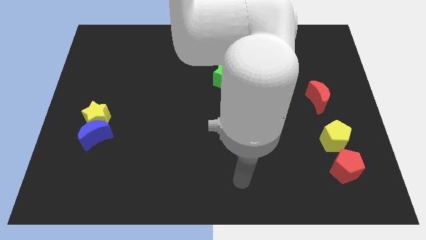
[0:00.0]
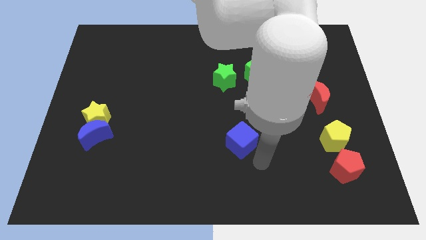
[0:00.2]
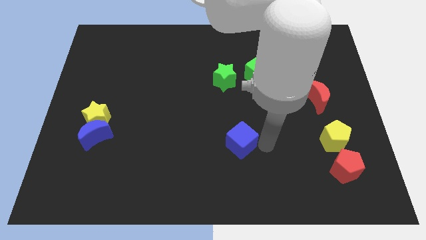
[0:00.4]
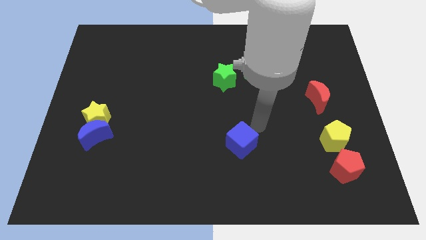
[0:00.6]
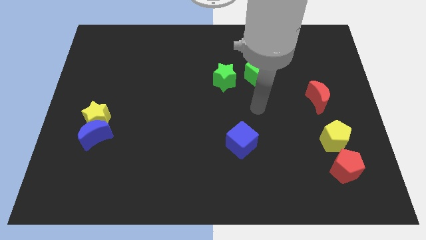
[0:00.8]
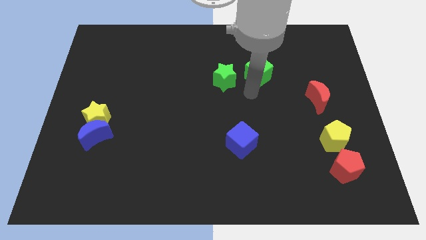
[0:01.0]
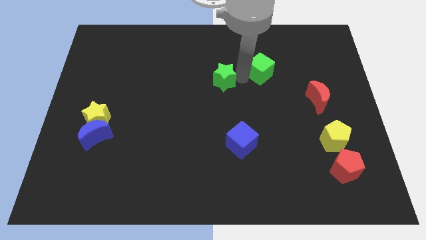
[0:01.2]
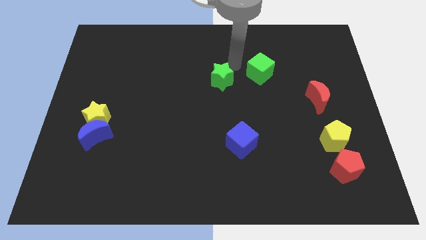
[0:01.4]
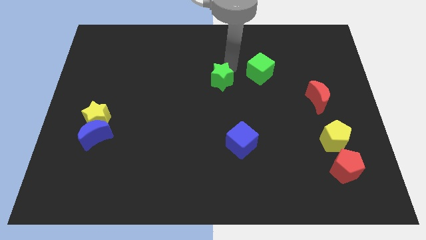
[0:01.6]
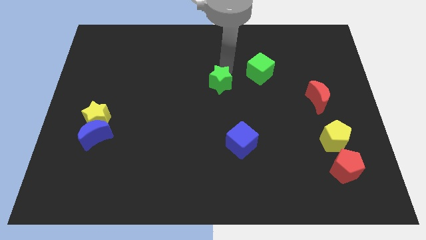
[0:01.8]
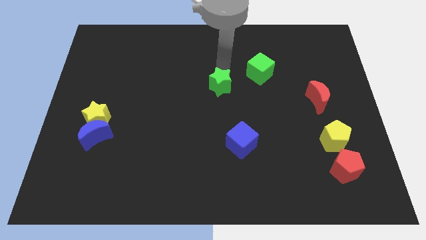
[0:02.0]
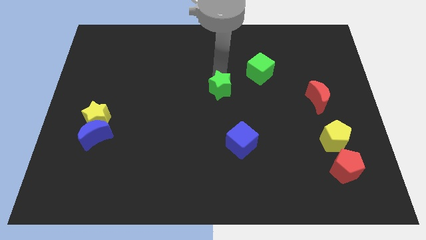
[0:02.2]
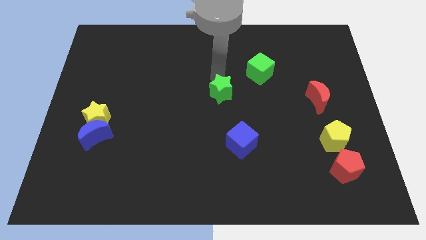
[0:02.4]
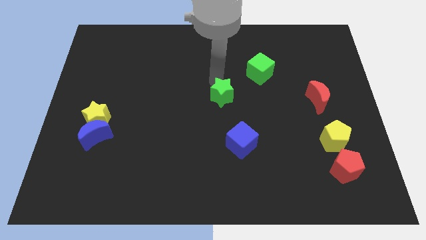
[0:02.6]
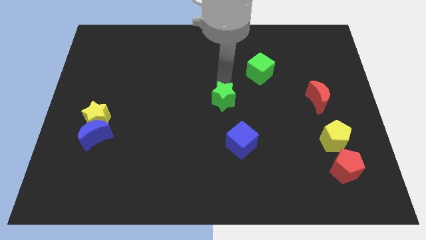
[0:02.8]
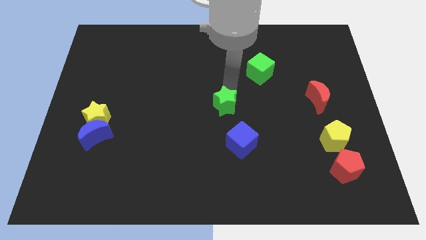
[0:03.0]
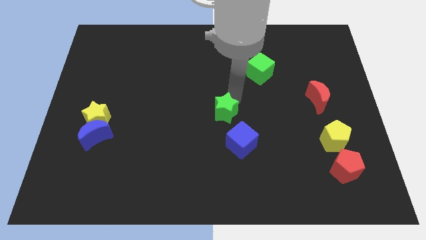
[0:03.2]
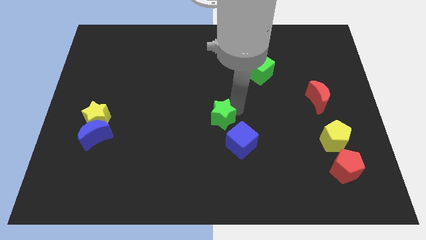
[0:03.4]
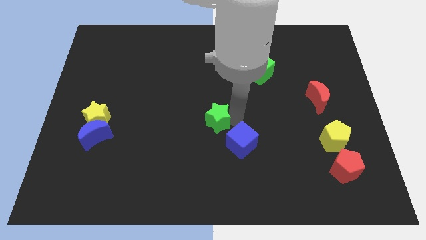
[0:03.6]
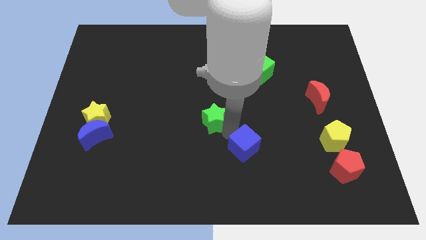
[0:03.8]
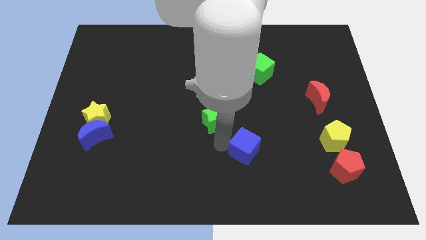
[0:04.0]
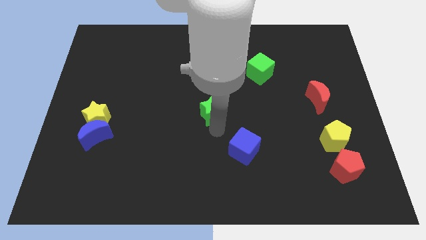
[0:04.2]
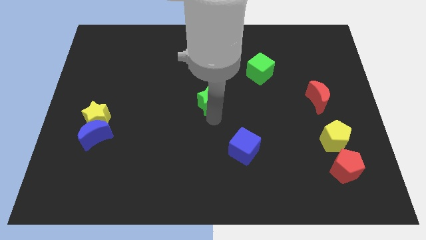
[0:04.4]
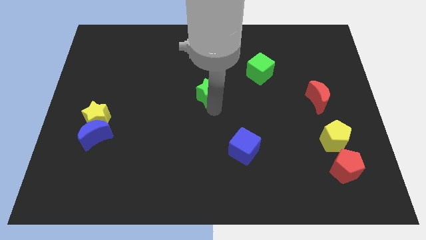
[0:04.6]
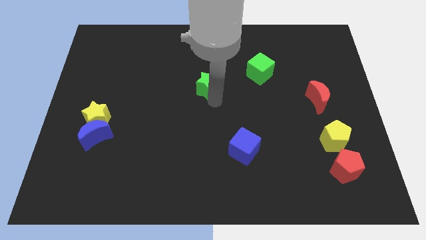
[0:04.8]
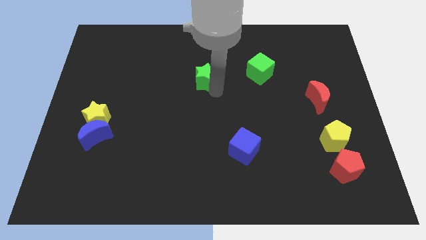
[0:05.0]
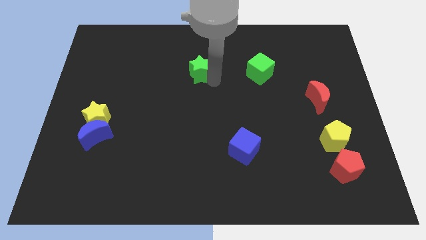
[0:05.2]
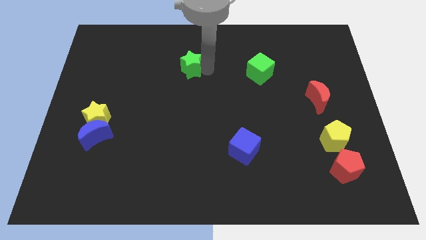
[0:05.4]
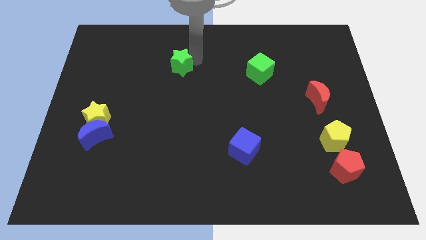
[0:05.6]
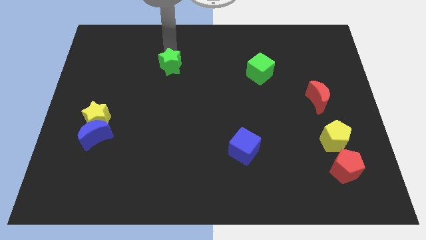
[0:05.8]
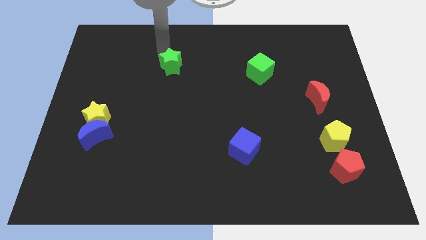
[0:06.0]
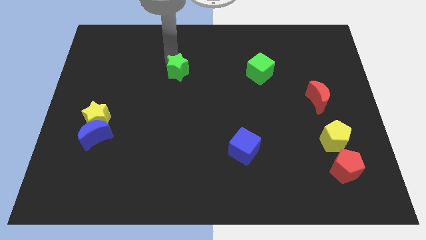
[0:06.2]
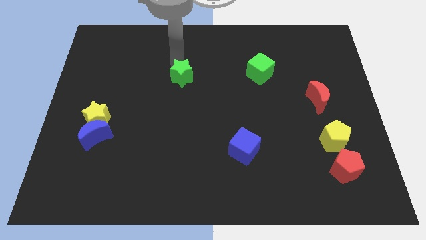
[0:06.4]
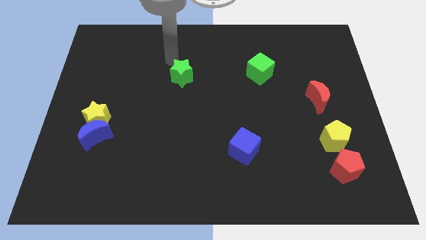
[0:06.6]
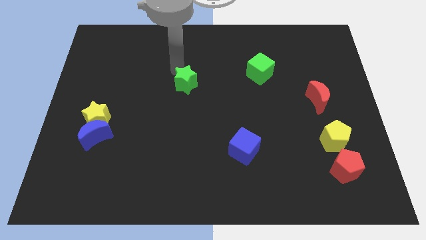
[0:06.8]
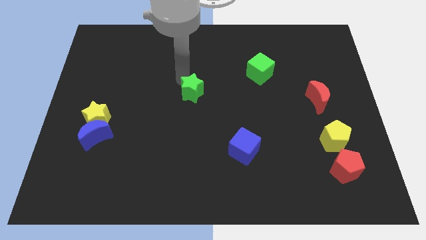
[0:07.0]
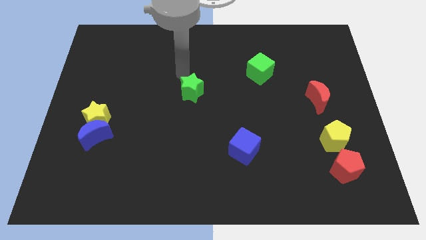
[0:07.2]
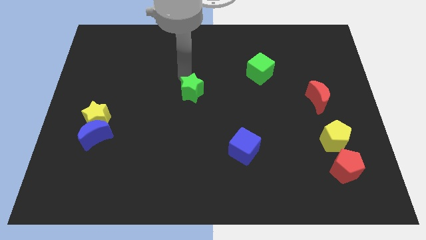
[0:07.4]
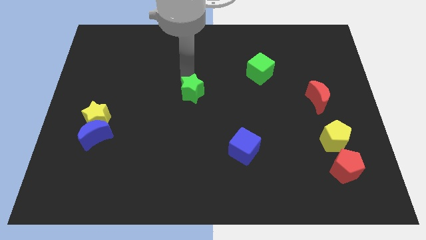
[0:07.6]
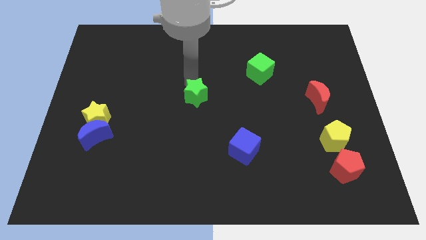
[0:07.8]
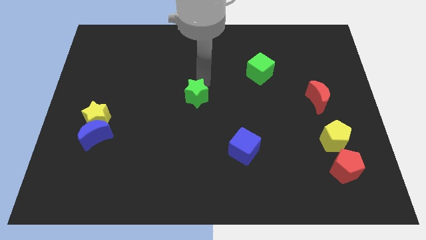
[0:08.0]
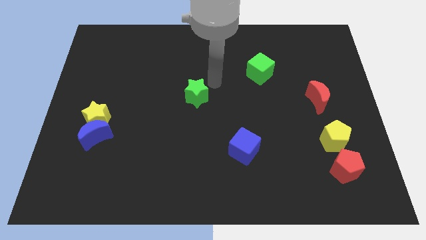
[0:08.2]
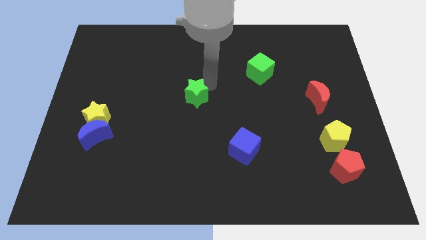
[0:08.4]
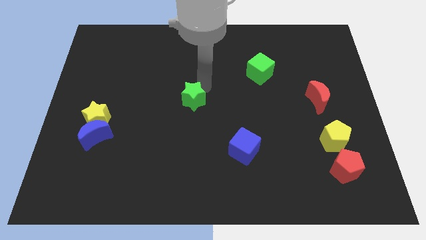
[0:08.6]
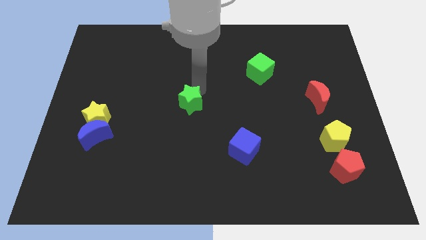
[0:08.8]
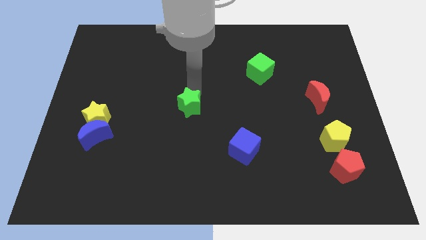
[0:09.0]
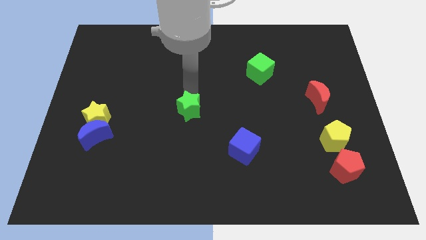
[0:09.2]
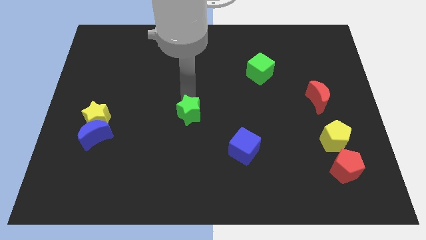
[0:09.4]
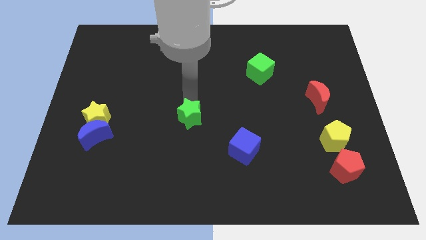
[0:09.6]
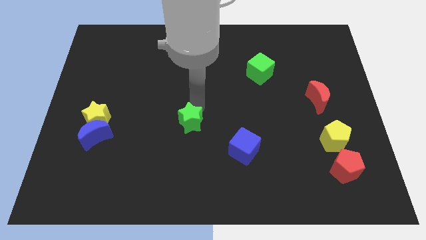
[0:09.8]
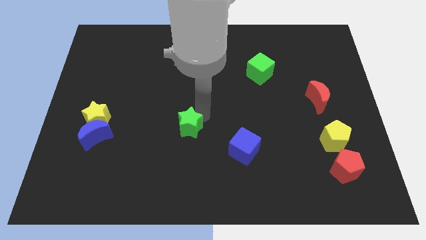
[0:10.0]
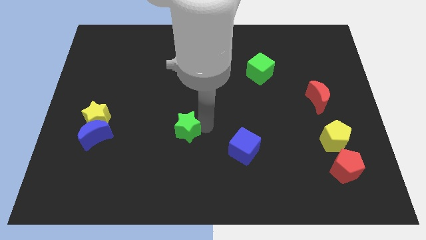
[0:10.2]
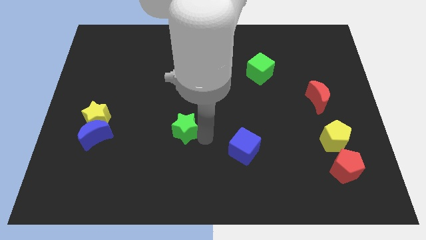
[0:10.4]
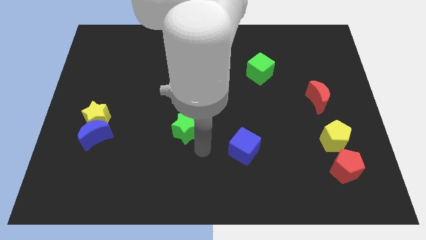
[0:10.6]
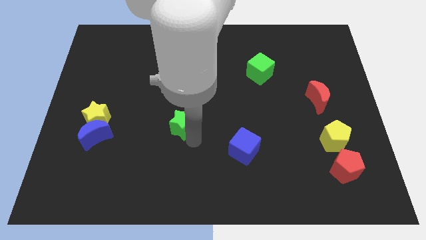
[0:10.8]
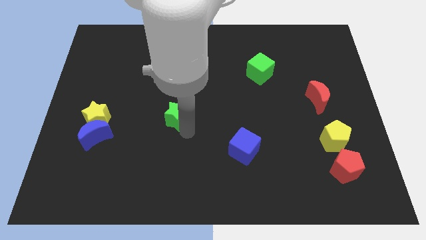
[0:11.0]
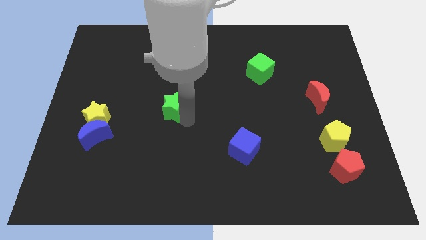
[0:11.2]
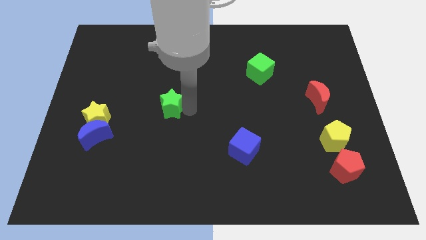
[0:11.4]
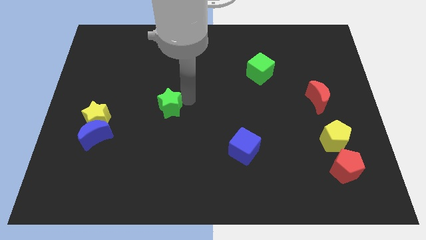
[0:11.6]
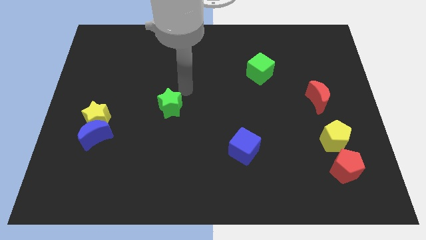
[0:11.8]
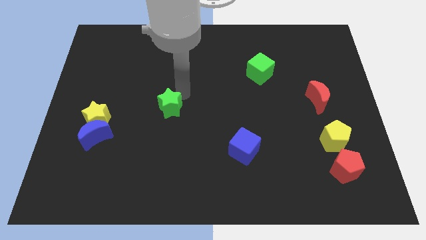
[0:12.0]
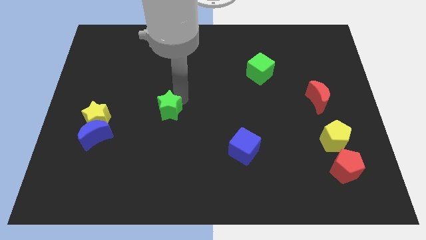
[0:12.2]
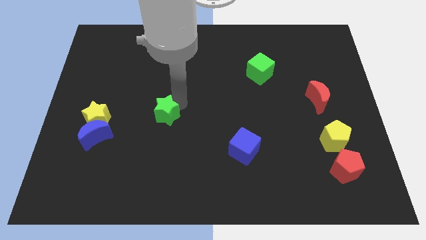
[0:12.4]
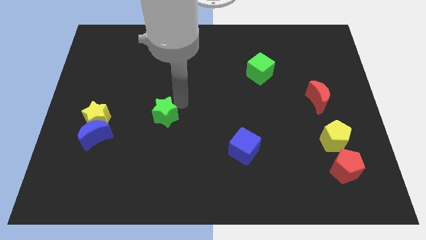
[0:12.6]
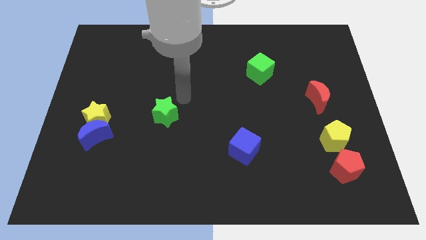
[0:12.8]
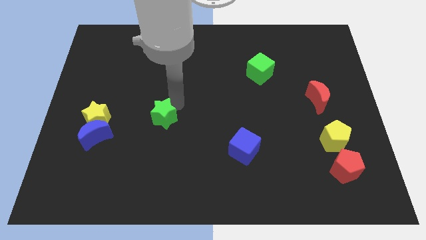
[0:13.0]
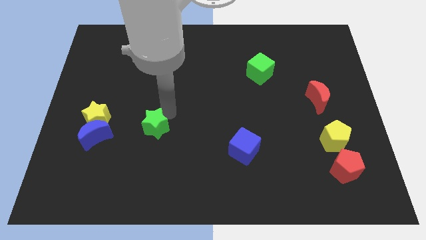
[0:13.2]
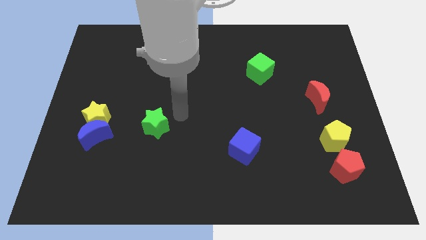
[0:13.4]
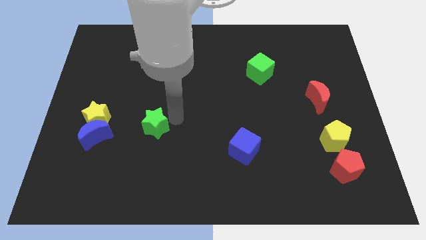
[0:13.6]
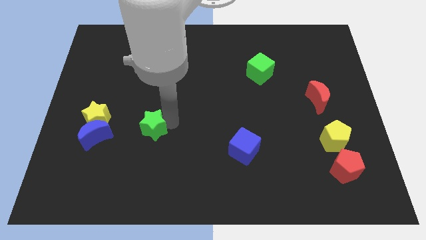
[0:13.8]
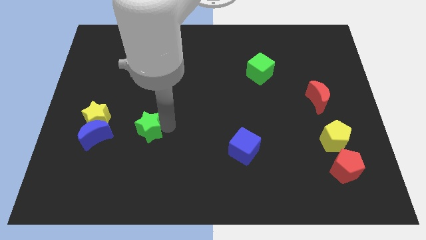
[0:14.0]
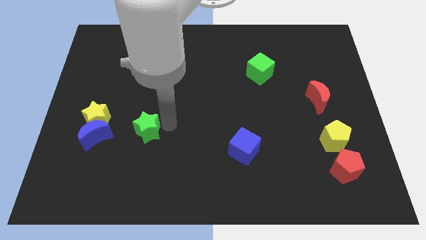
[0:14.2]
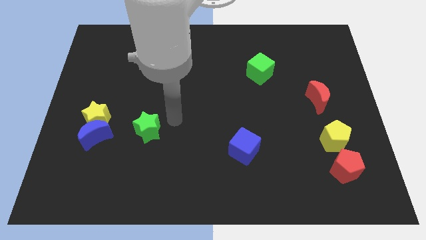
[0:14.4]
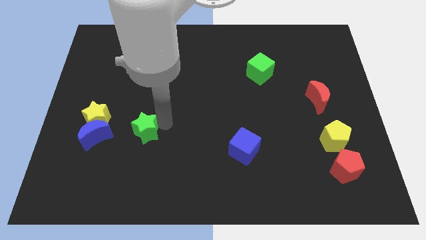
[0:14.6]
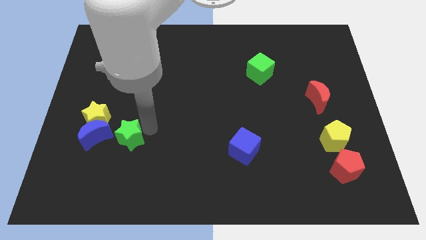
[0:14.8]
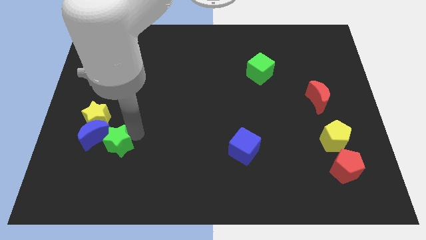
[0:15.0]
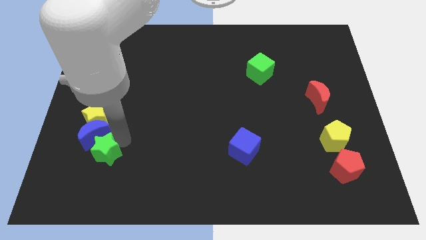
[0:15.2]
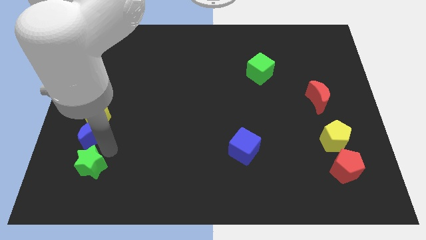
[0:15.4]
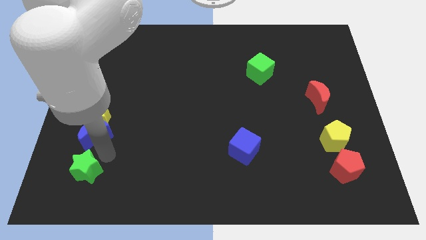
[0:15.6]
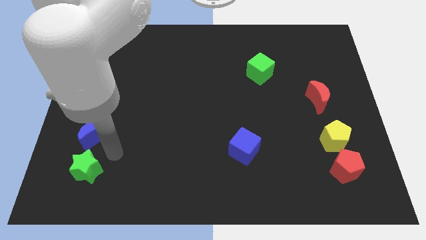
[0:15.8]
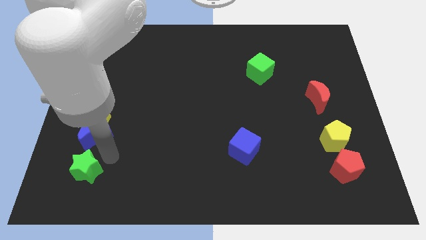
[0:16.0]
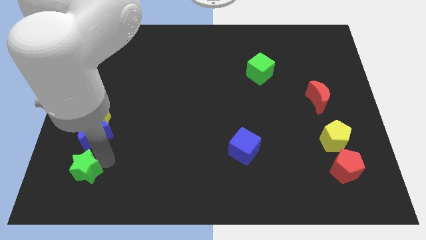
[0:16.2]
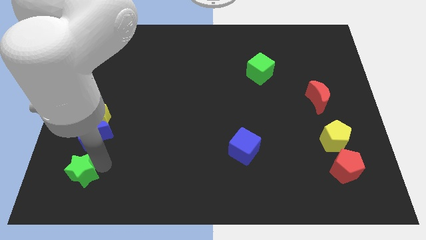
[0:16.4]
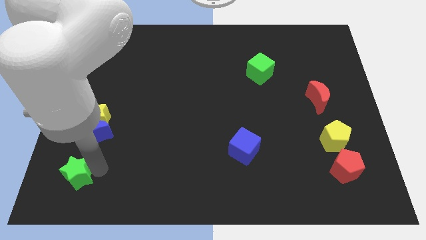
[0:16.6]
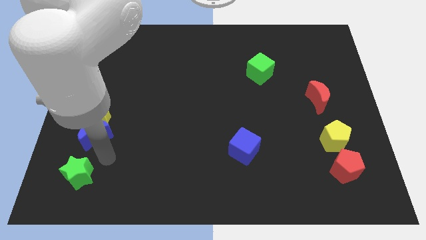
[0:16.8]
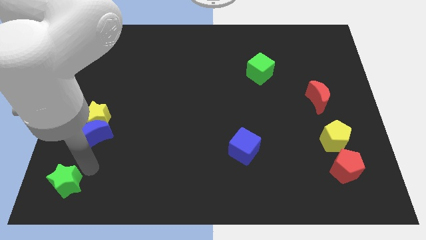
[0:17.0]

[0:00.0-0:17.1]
put the green star to the bottom left of the board
